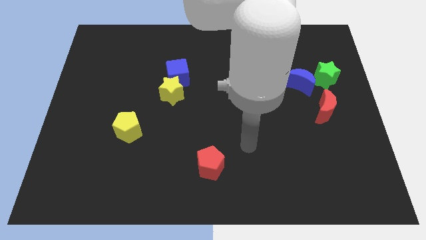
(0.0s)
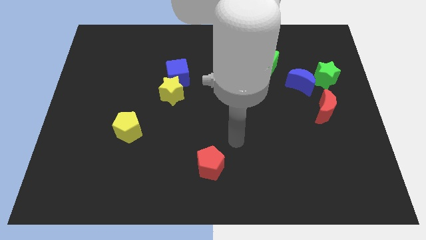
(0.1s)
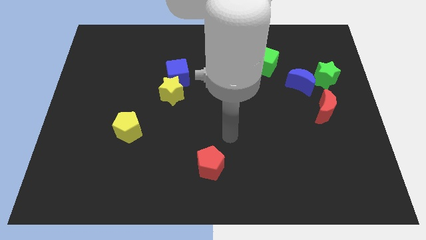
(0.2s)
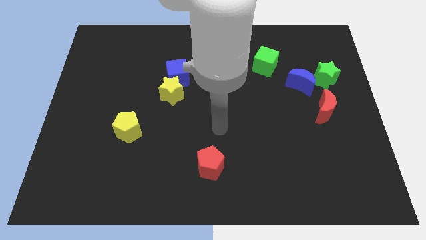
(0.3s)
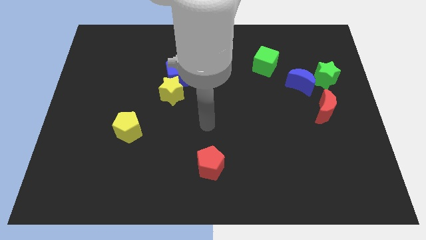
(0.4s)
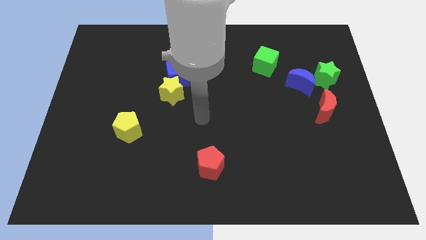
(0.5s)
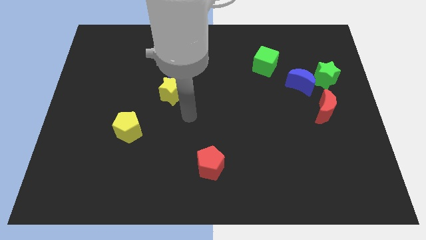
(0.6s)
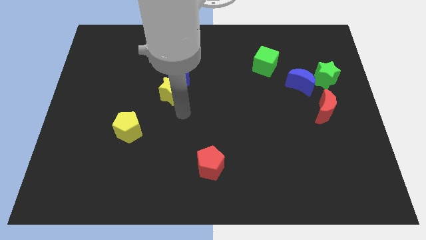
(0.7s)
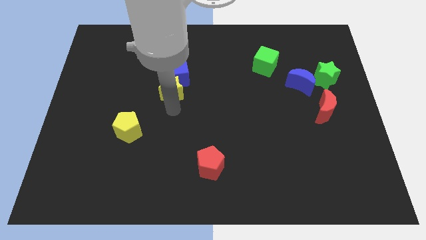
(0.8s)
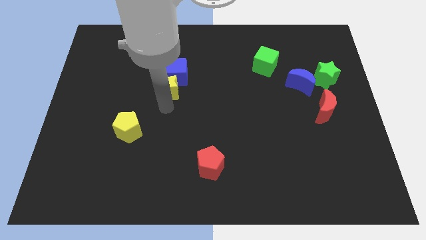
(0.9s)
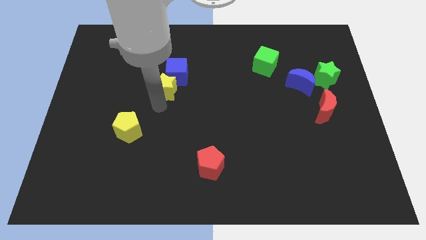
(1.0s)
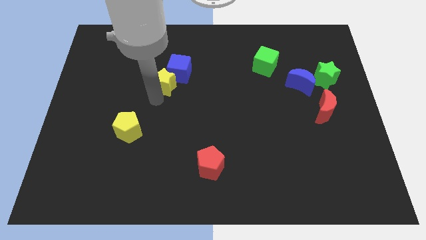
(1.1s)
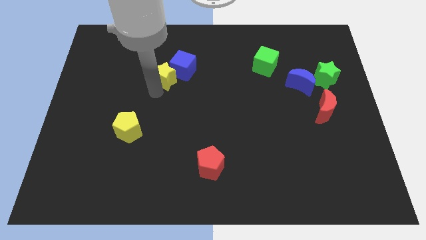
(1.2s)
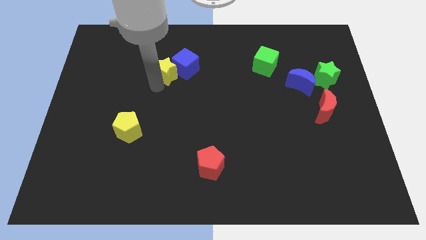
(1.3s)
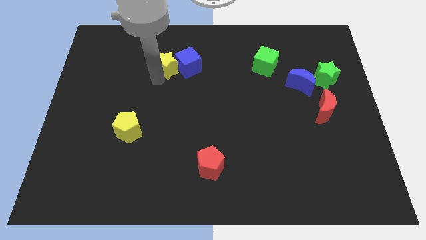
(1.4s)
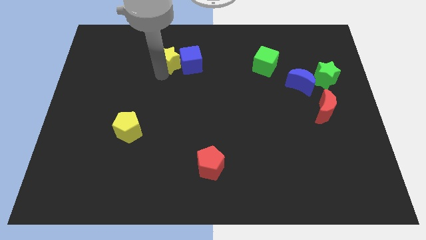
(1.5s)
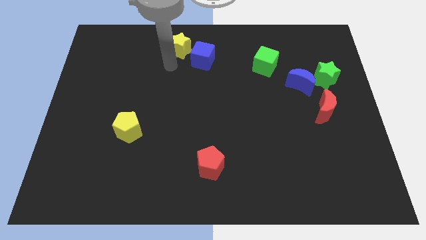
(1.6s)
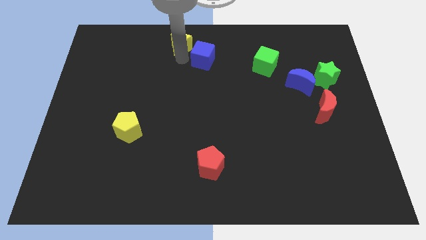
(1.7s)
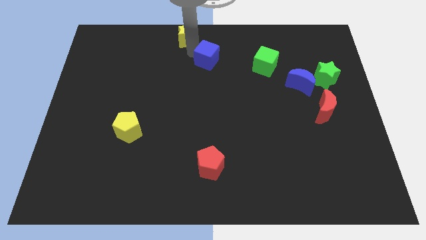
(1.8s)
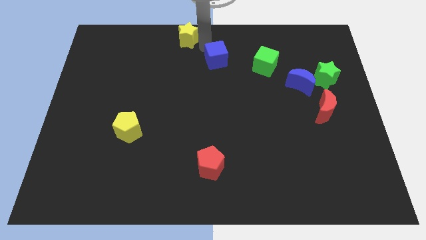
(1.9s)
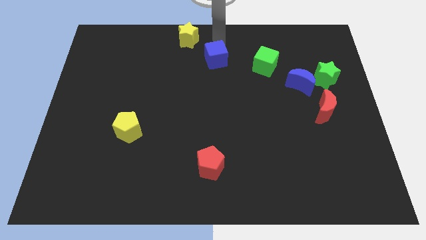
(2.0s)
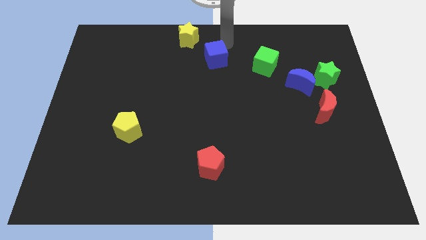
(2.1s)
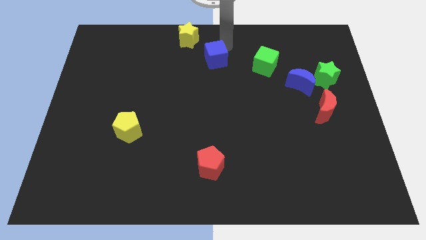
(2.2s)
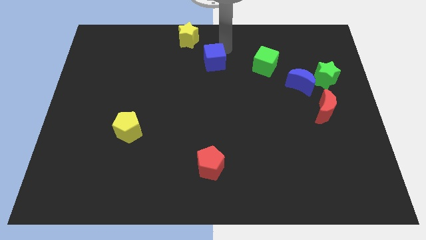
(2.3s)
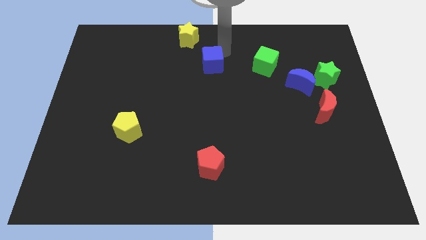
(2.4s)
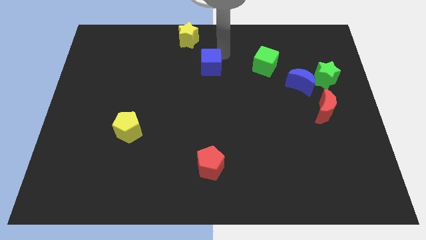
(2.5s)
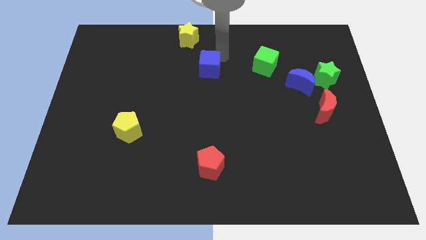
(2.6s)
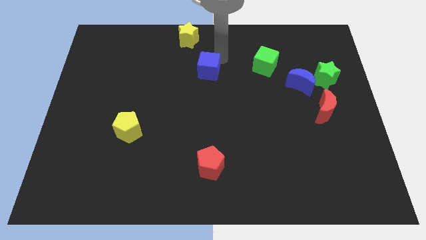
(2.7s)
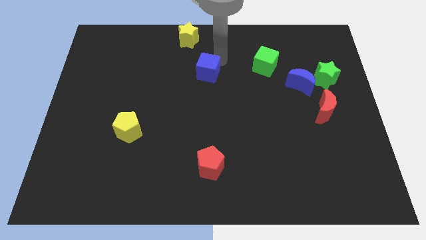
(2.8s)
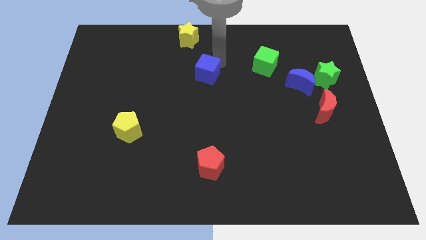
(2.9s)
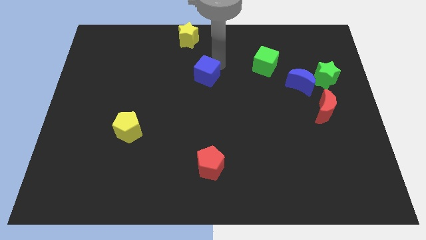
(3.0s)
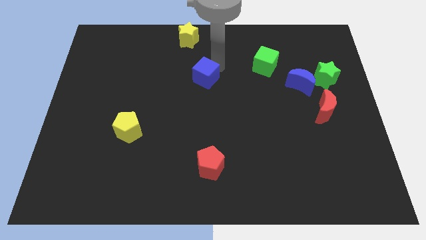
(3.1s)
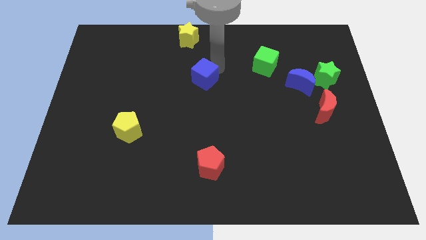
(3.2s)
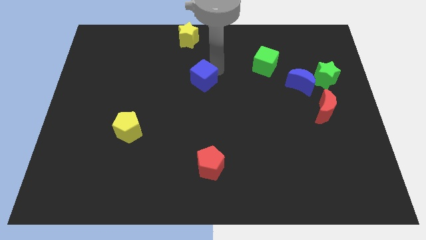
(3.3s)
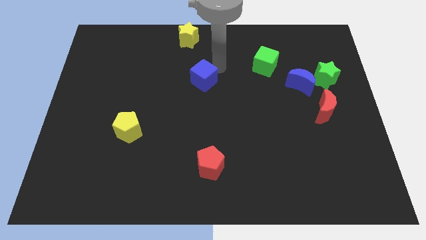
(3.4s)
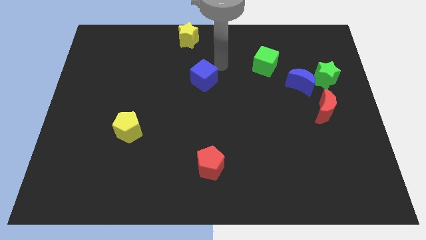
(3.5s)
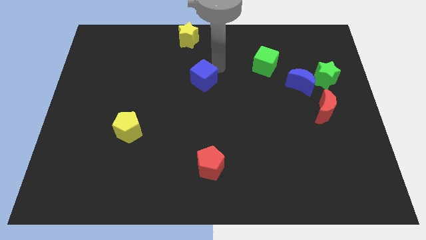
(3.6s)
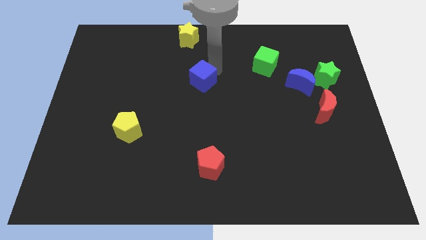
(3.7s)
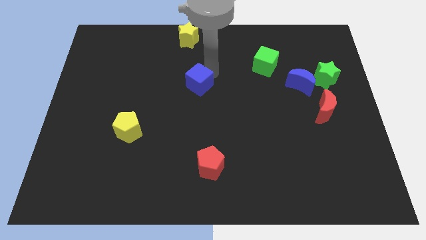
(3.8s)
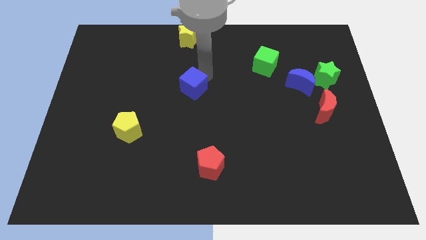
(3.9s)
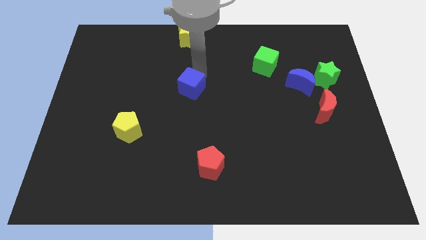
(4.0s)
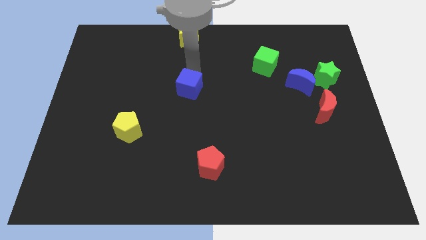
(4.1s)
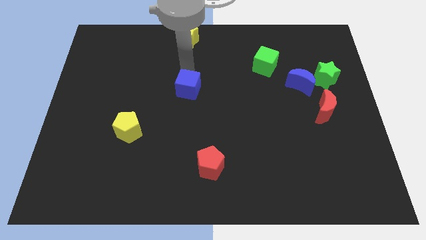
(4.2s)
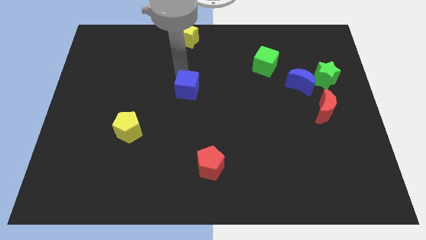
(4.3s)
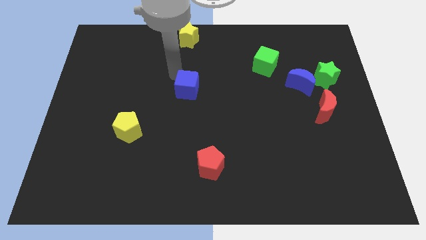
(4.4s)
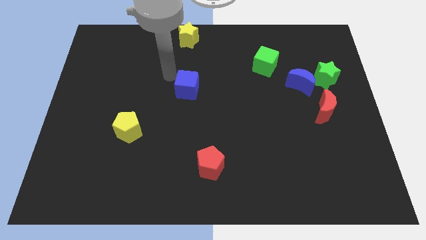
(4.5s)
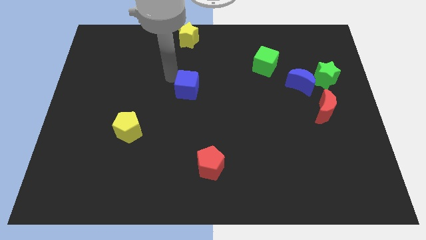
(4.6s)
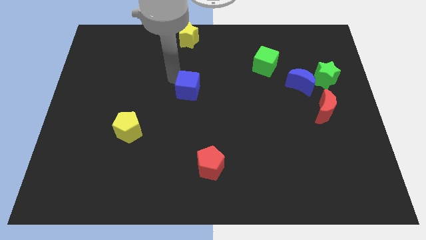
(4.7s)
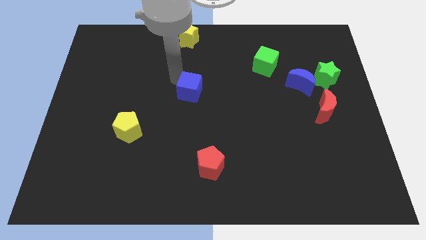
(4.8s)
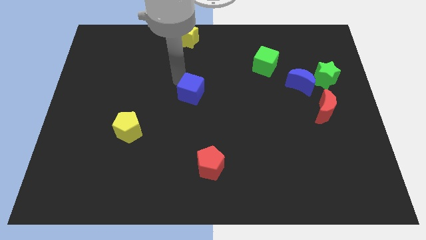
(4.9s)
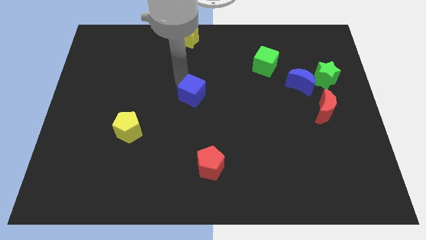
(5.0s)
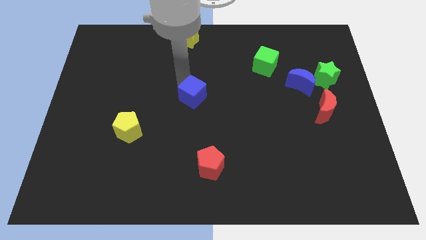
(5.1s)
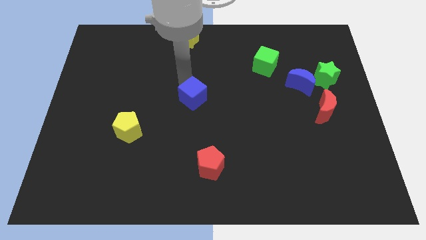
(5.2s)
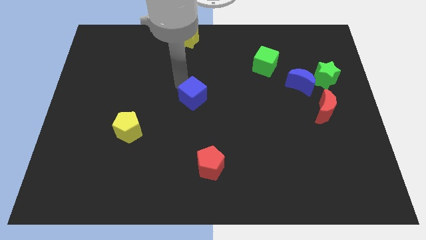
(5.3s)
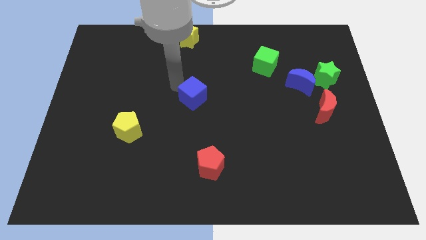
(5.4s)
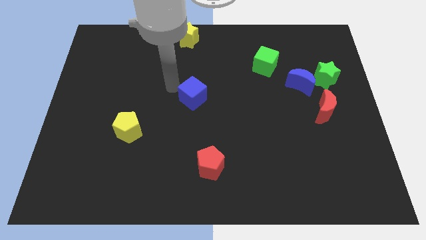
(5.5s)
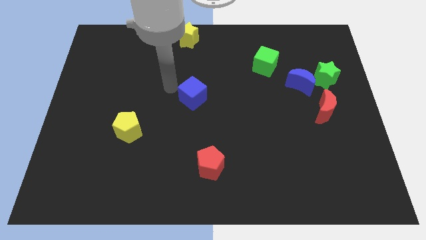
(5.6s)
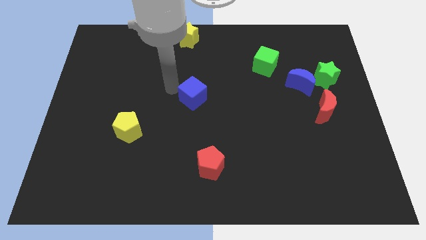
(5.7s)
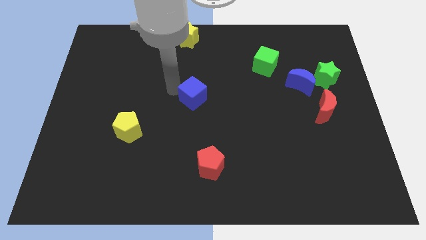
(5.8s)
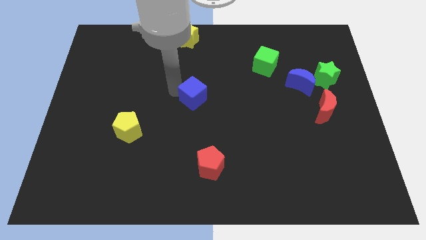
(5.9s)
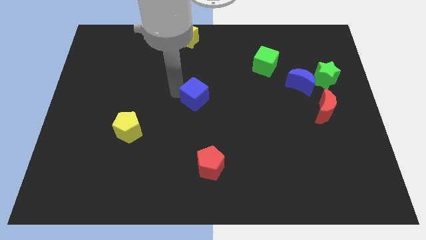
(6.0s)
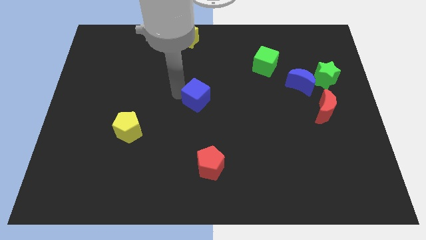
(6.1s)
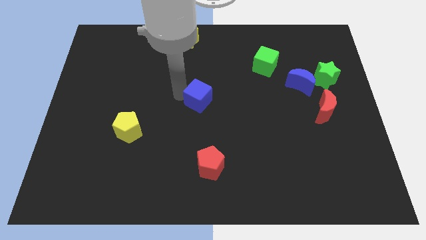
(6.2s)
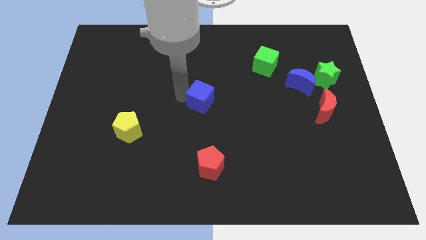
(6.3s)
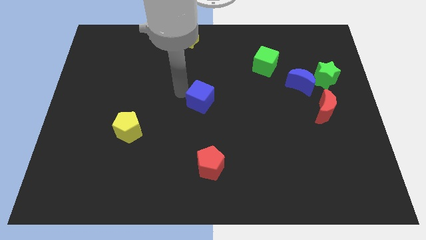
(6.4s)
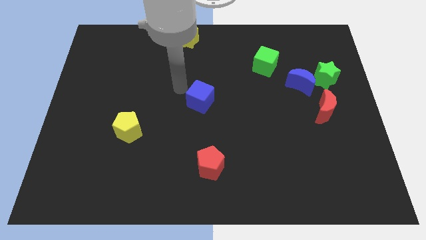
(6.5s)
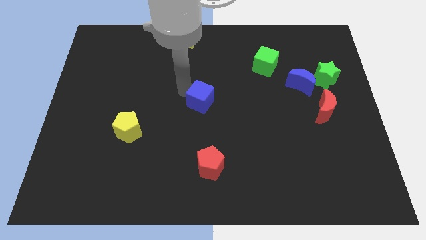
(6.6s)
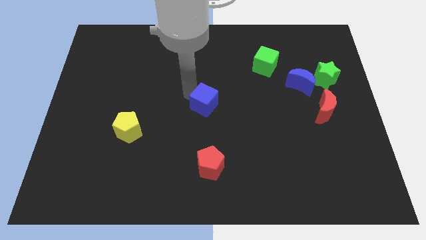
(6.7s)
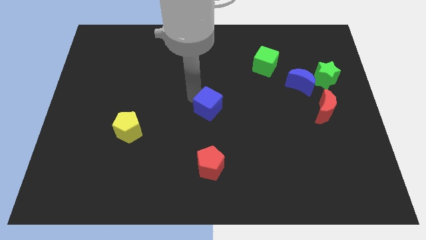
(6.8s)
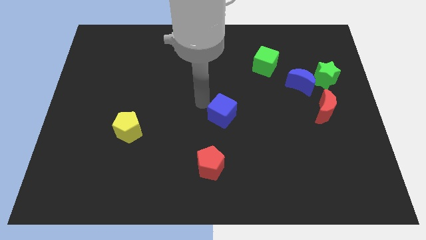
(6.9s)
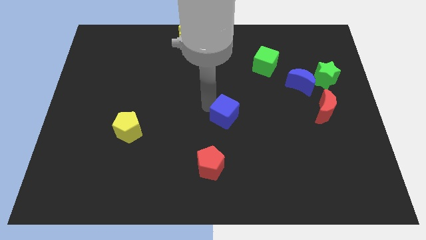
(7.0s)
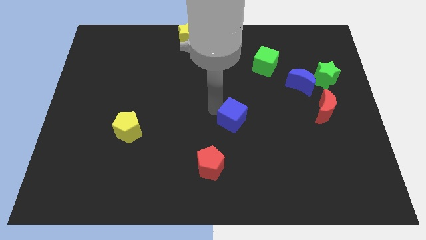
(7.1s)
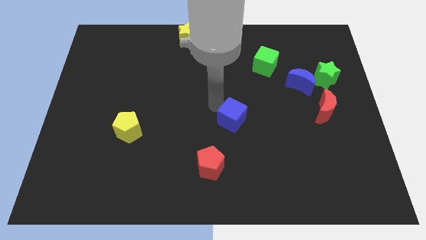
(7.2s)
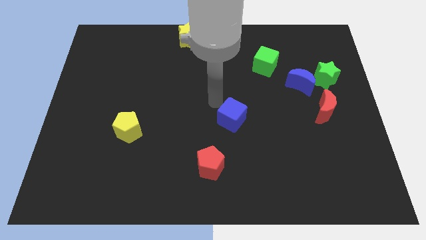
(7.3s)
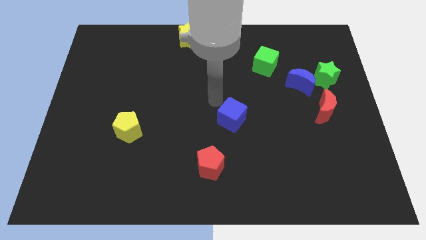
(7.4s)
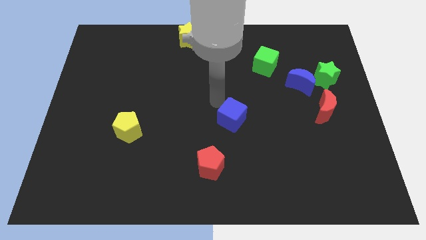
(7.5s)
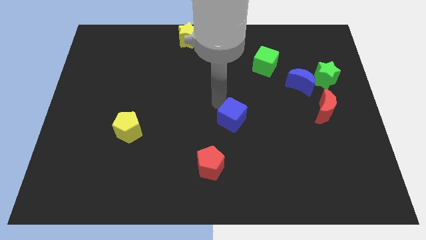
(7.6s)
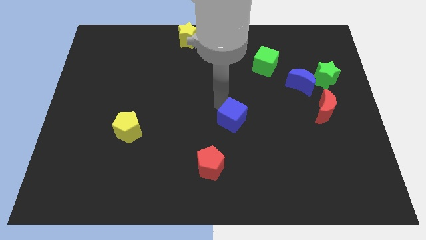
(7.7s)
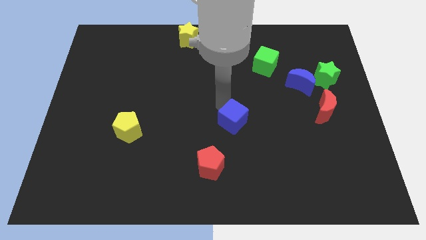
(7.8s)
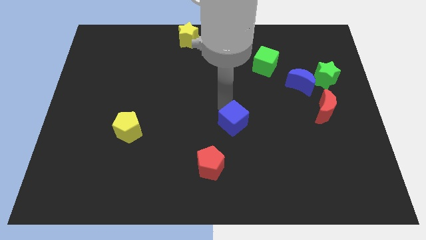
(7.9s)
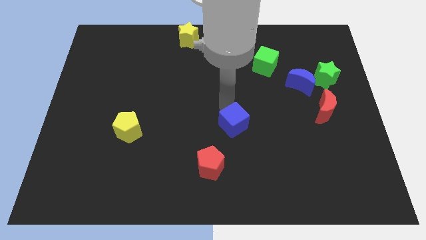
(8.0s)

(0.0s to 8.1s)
move the blue cube diagonally down and right
